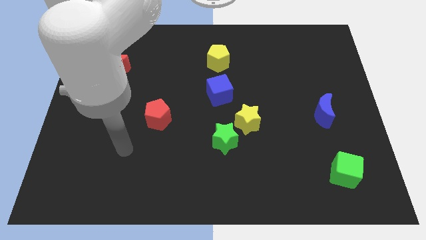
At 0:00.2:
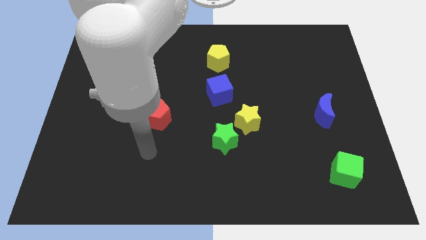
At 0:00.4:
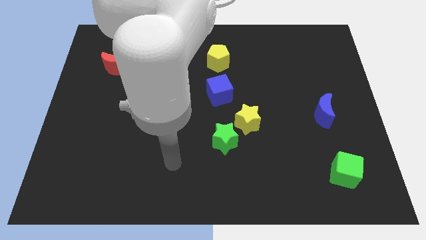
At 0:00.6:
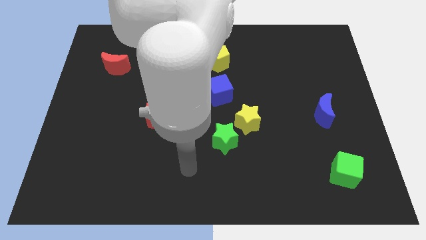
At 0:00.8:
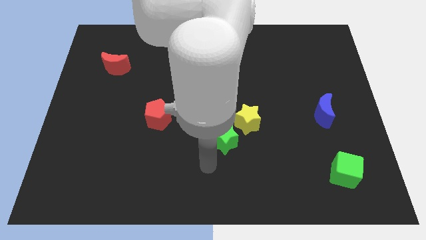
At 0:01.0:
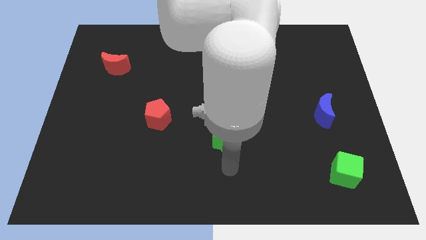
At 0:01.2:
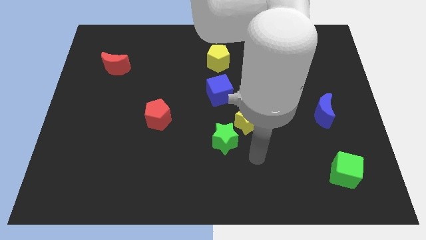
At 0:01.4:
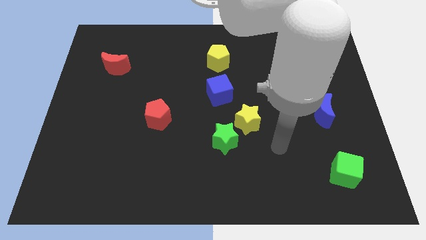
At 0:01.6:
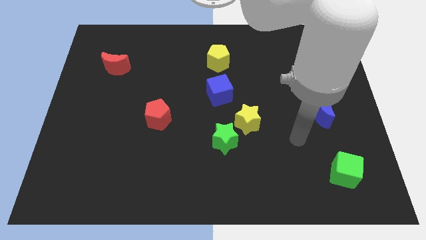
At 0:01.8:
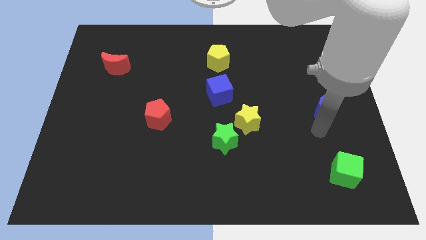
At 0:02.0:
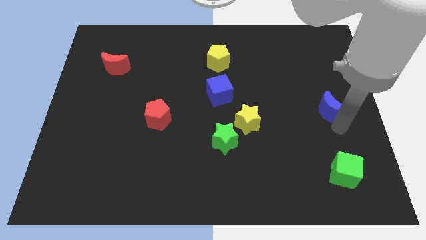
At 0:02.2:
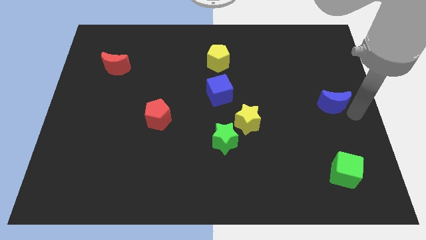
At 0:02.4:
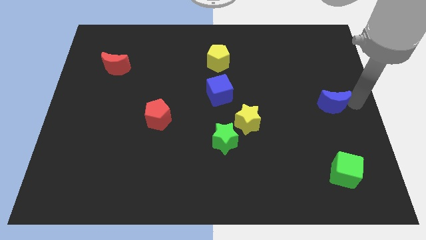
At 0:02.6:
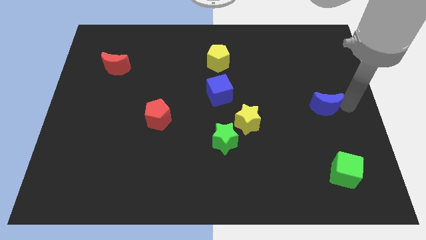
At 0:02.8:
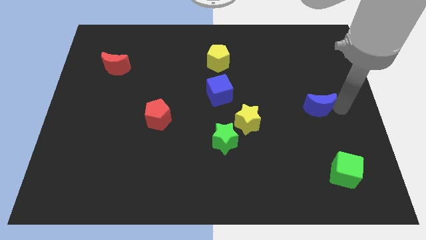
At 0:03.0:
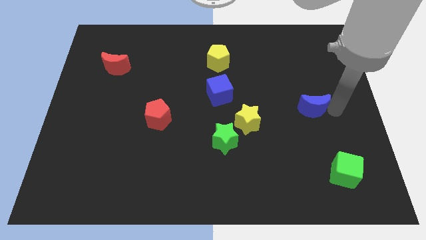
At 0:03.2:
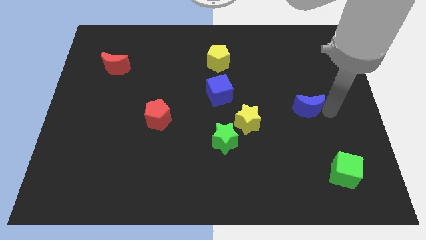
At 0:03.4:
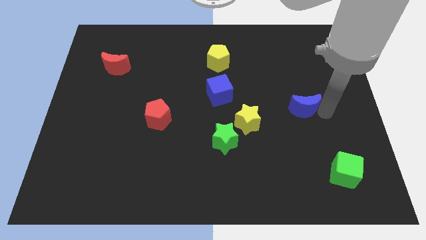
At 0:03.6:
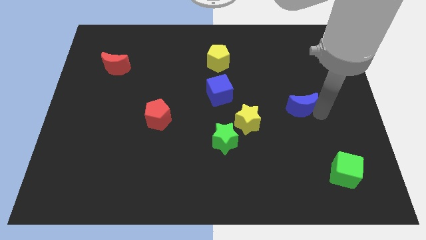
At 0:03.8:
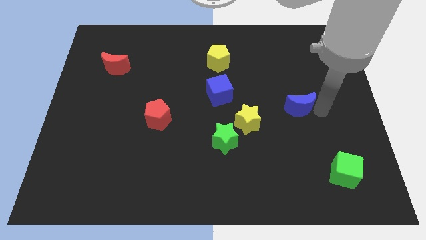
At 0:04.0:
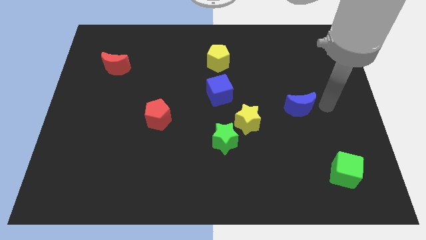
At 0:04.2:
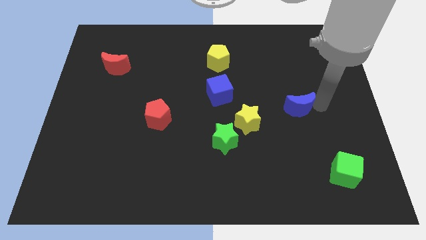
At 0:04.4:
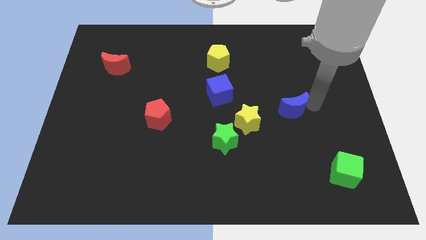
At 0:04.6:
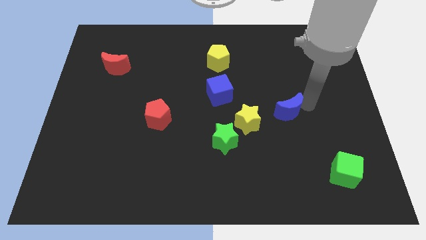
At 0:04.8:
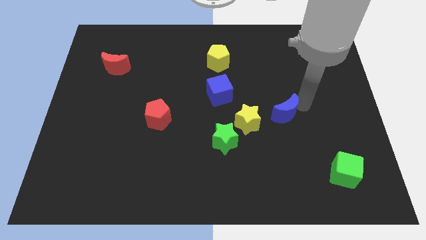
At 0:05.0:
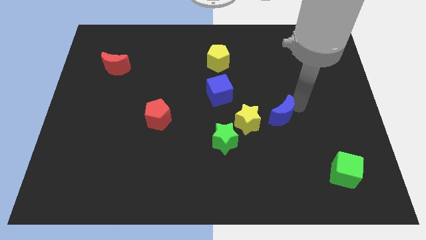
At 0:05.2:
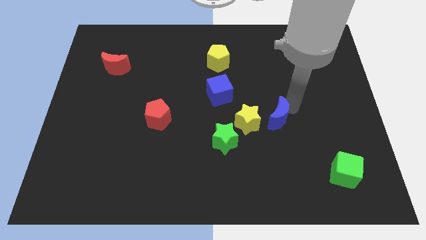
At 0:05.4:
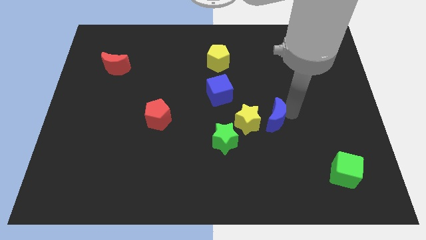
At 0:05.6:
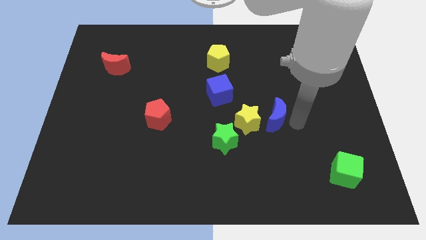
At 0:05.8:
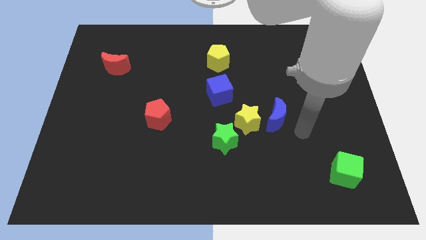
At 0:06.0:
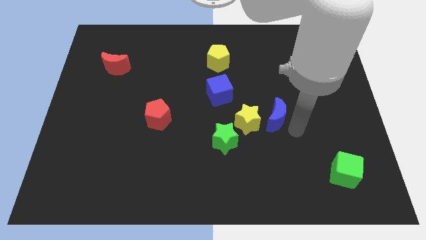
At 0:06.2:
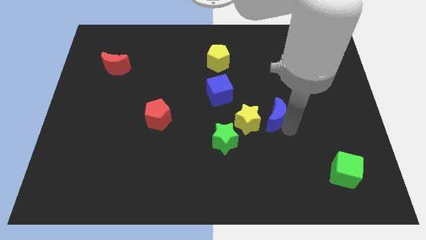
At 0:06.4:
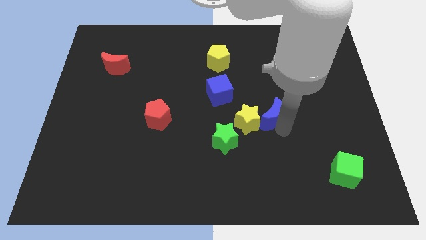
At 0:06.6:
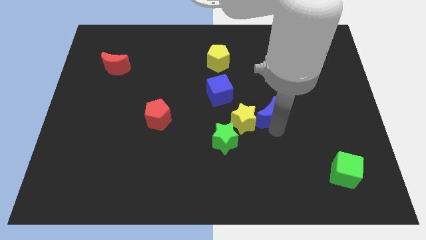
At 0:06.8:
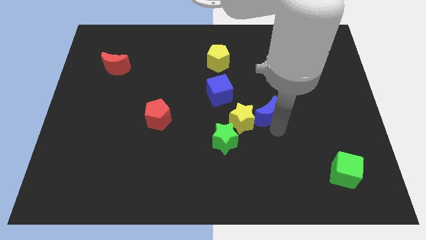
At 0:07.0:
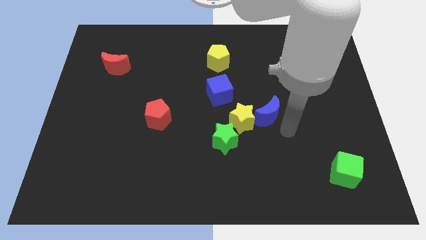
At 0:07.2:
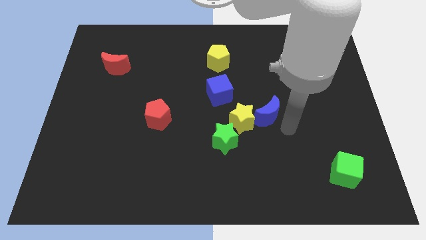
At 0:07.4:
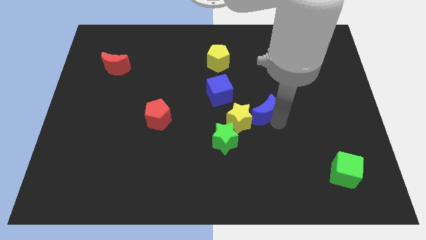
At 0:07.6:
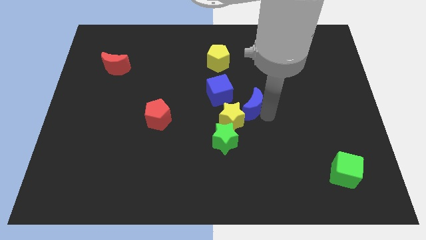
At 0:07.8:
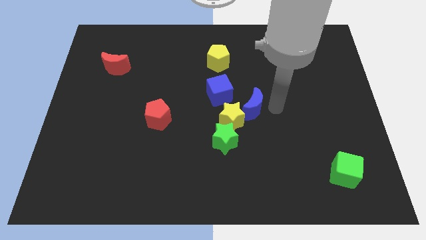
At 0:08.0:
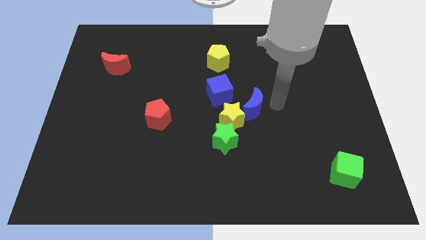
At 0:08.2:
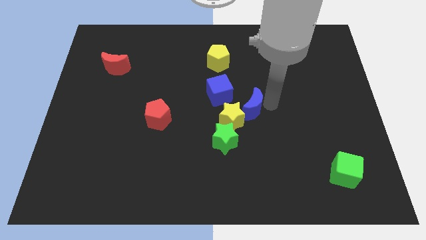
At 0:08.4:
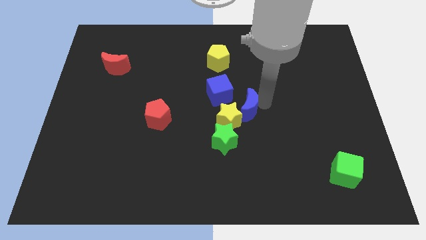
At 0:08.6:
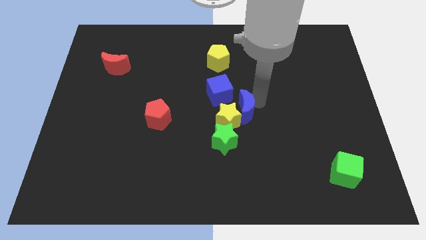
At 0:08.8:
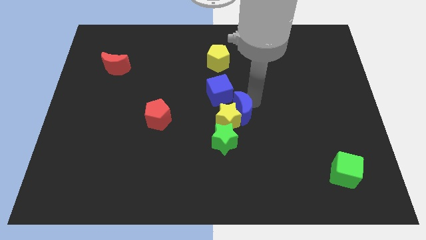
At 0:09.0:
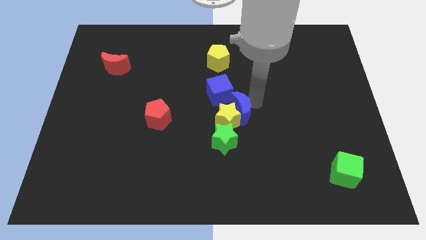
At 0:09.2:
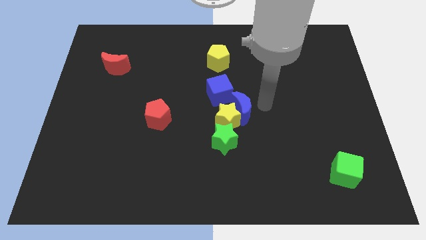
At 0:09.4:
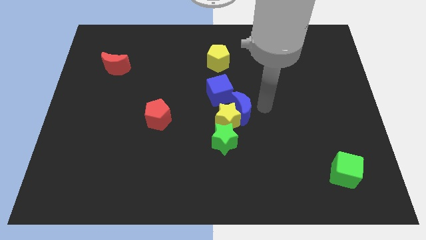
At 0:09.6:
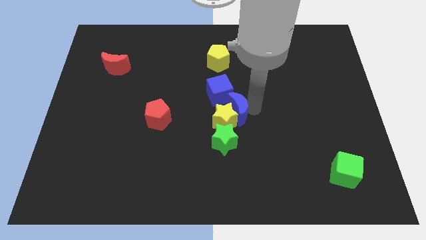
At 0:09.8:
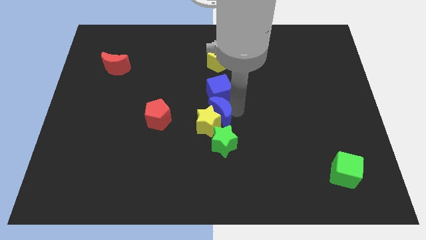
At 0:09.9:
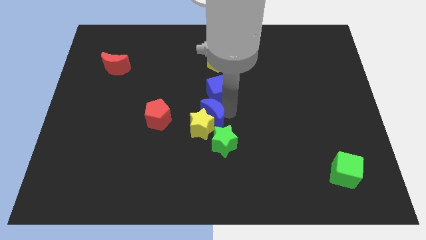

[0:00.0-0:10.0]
put the blue moon to the top left of the green star

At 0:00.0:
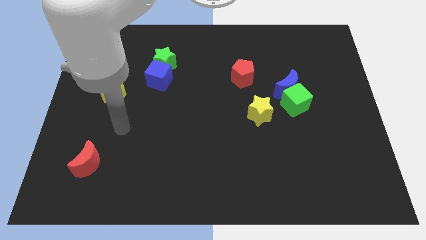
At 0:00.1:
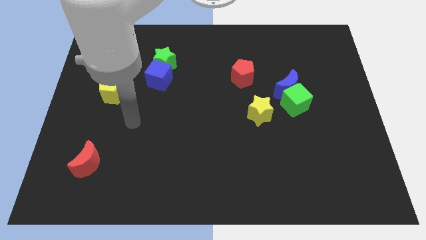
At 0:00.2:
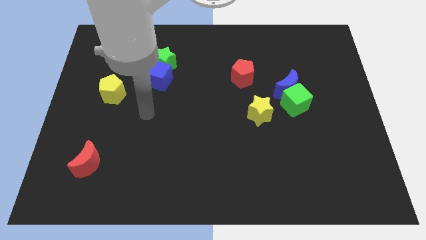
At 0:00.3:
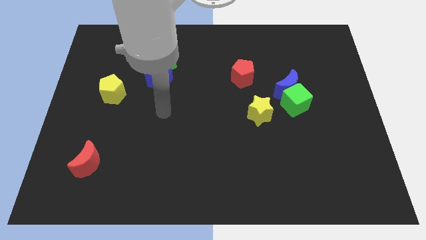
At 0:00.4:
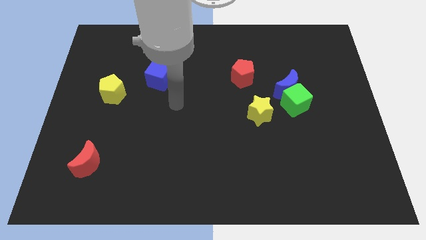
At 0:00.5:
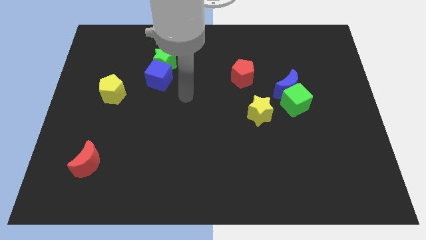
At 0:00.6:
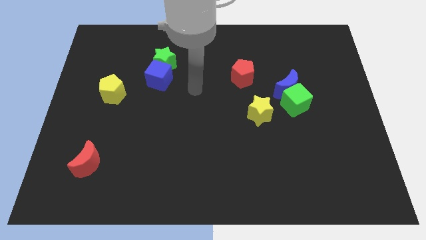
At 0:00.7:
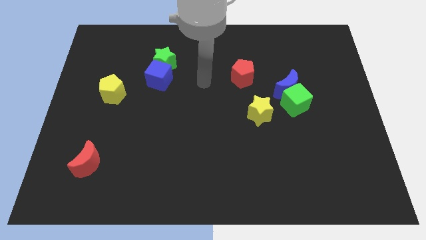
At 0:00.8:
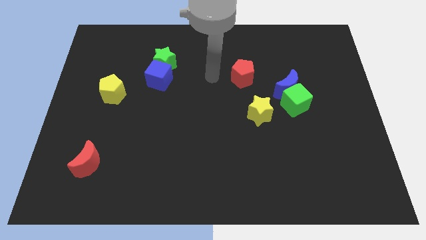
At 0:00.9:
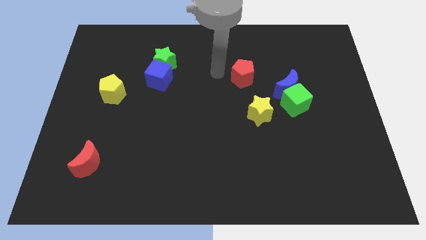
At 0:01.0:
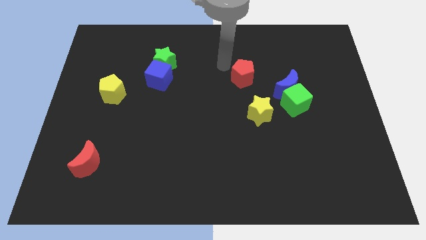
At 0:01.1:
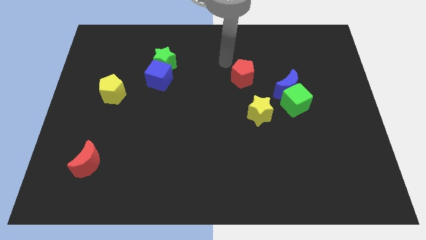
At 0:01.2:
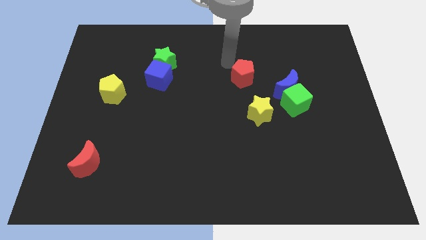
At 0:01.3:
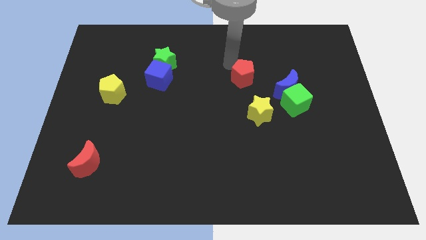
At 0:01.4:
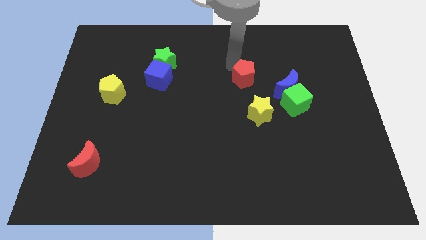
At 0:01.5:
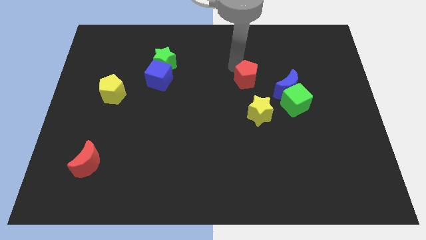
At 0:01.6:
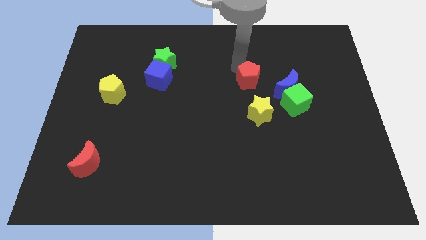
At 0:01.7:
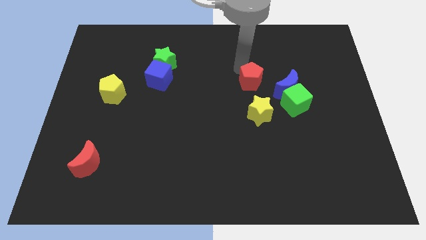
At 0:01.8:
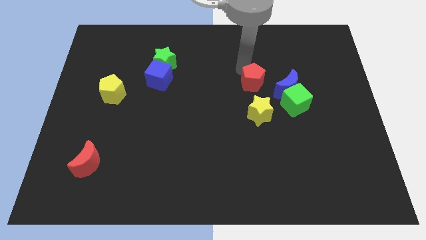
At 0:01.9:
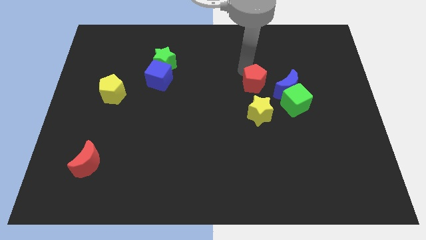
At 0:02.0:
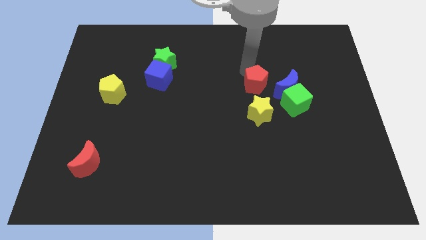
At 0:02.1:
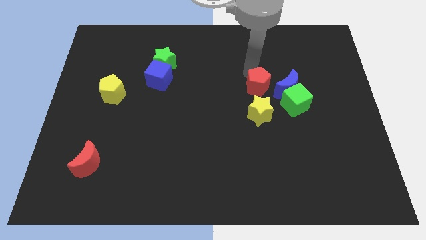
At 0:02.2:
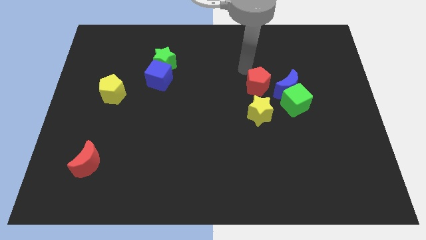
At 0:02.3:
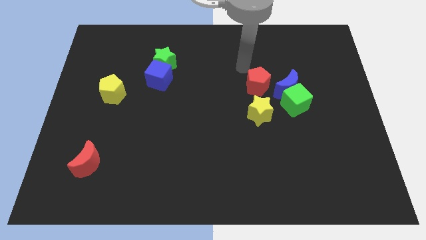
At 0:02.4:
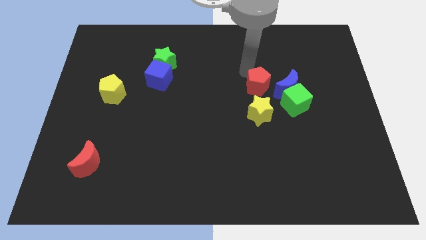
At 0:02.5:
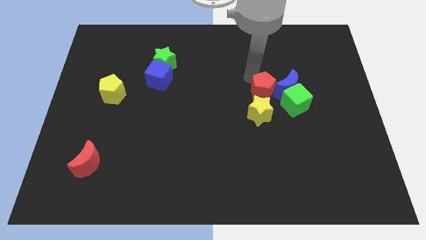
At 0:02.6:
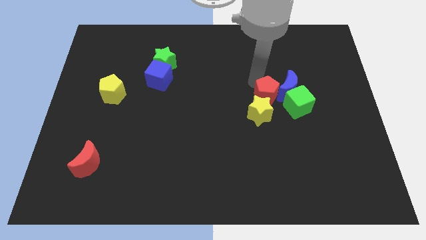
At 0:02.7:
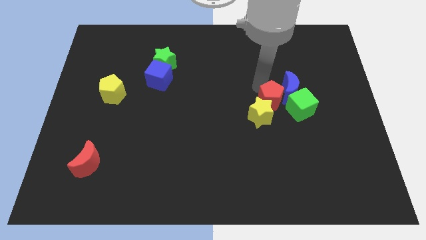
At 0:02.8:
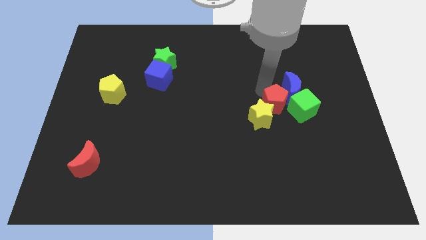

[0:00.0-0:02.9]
put the red pentagon below the blue moon
